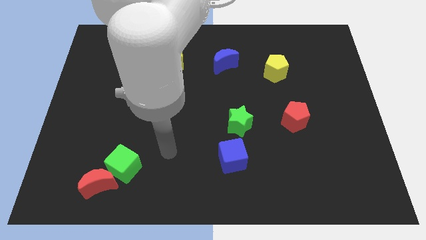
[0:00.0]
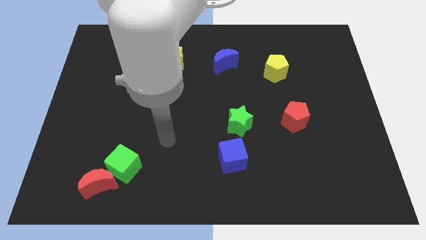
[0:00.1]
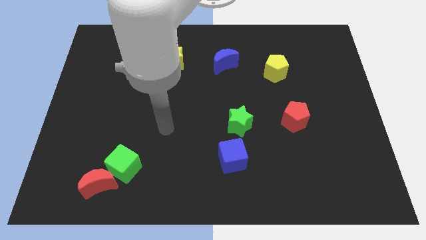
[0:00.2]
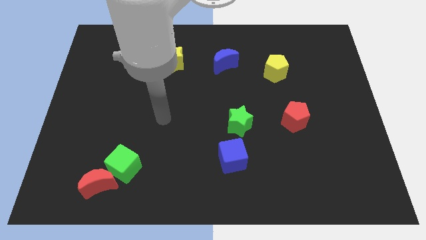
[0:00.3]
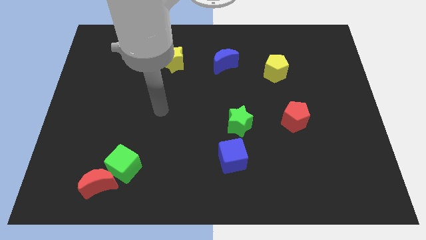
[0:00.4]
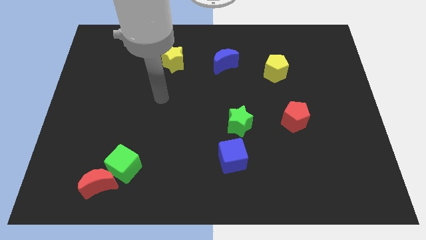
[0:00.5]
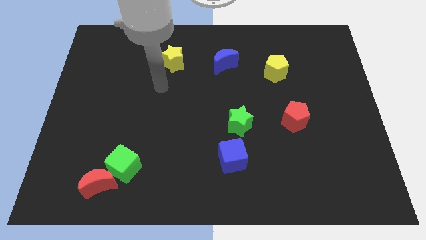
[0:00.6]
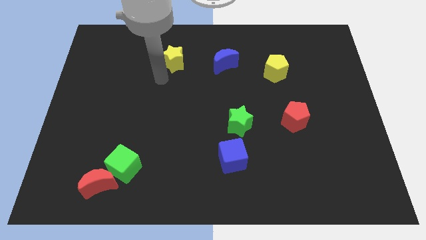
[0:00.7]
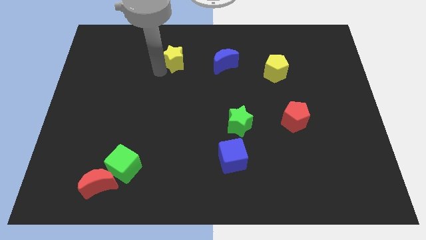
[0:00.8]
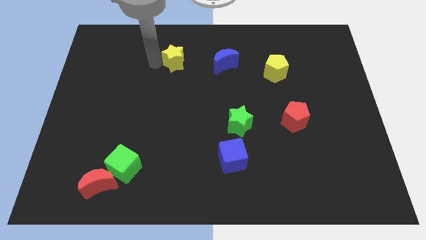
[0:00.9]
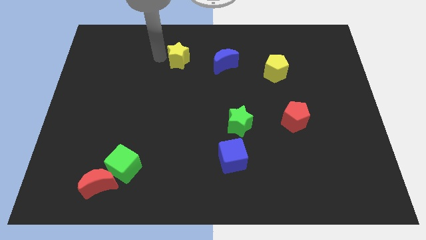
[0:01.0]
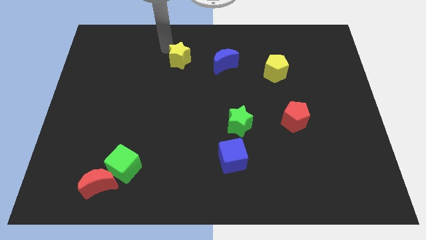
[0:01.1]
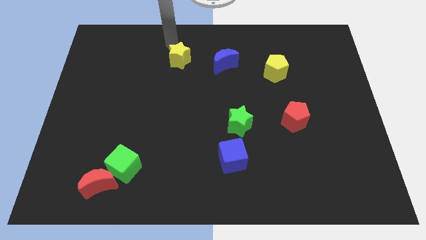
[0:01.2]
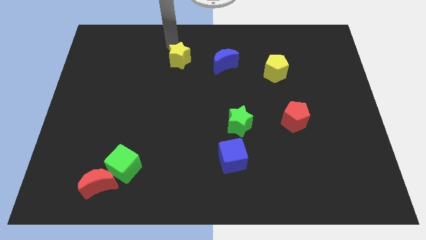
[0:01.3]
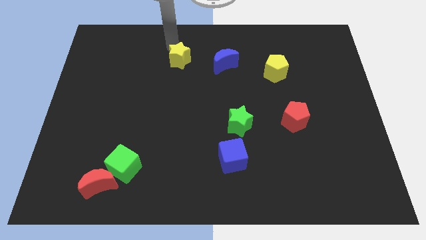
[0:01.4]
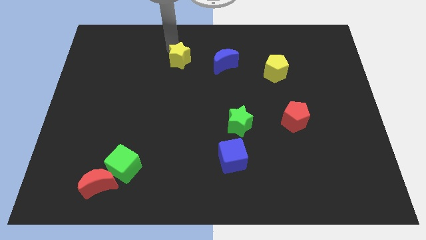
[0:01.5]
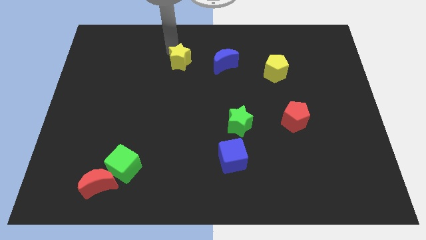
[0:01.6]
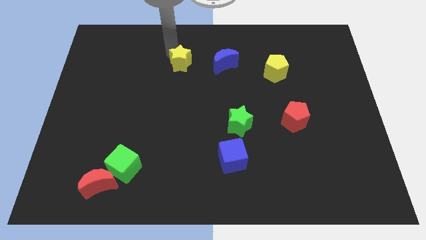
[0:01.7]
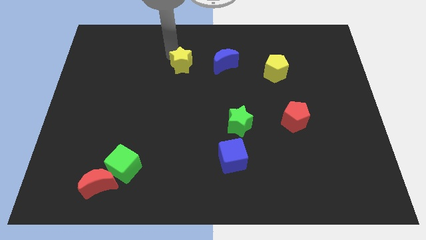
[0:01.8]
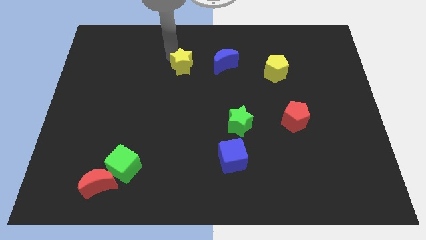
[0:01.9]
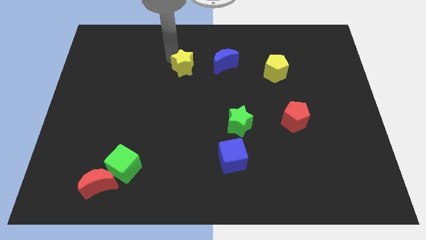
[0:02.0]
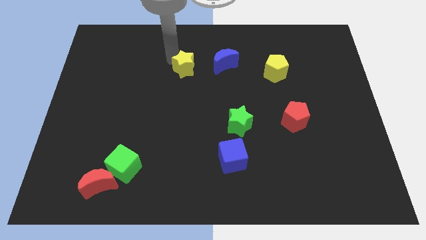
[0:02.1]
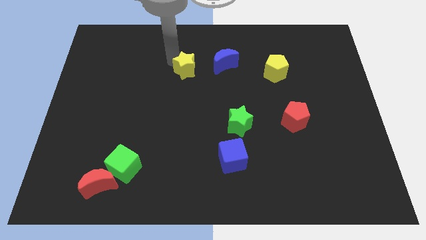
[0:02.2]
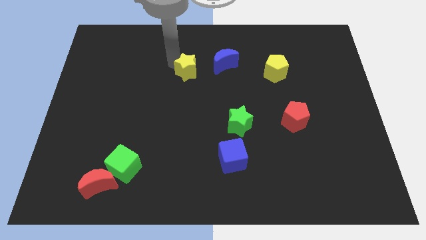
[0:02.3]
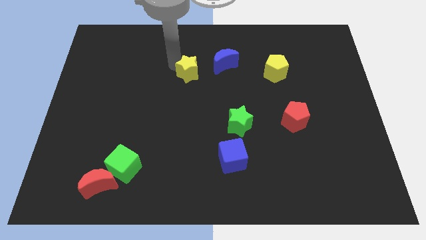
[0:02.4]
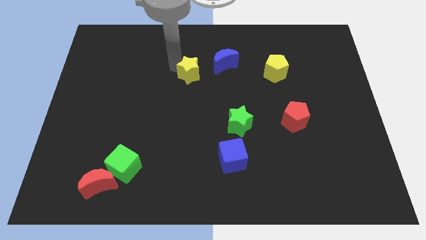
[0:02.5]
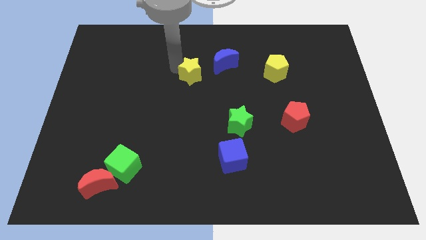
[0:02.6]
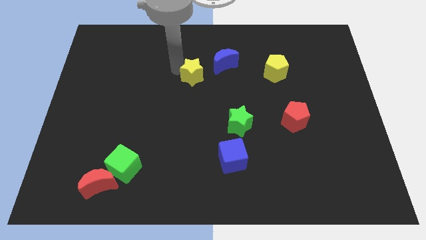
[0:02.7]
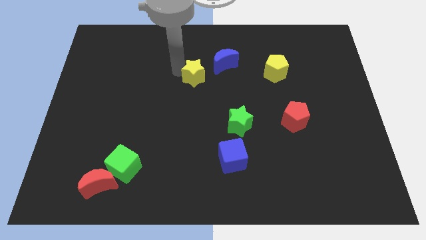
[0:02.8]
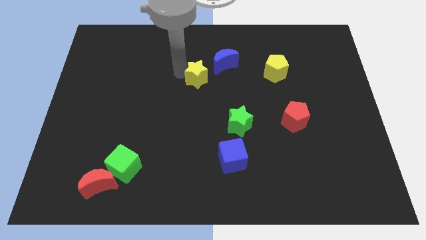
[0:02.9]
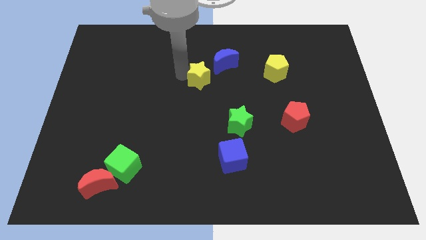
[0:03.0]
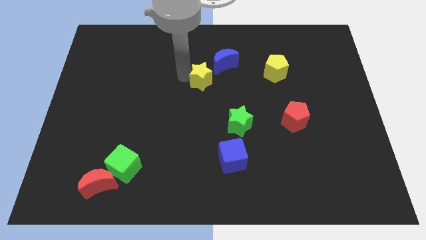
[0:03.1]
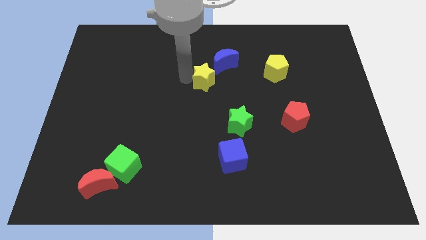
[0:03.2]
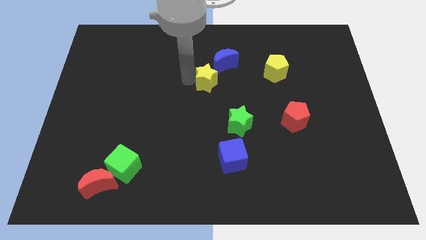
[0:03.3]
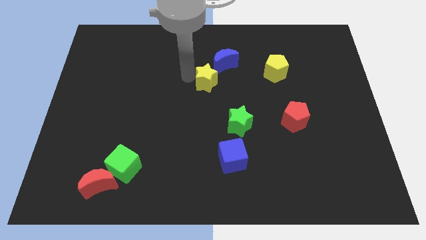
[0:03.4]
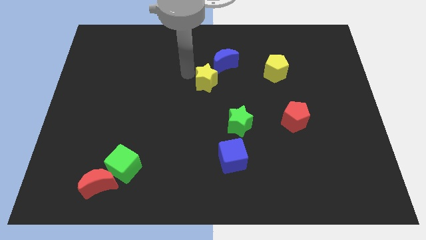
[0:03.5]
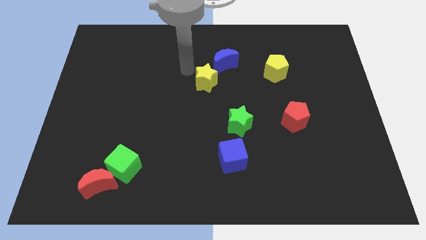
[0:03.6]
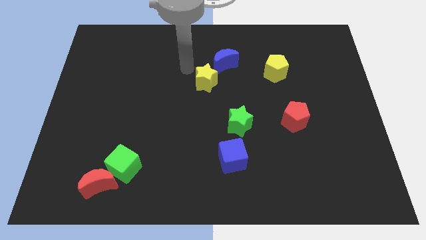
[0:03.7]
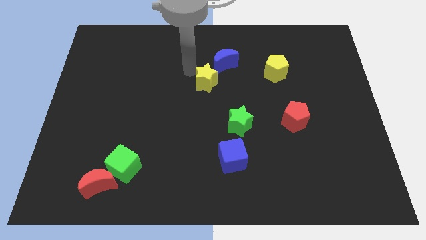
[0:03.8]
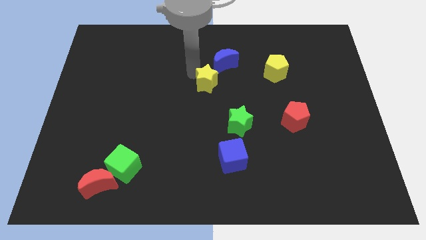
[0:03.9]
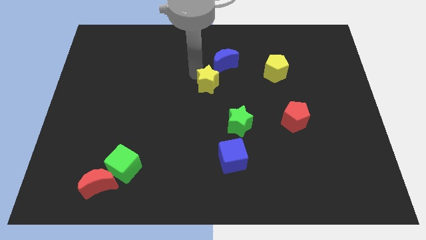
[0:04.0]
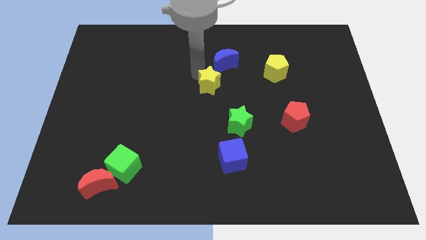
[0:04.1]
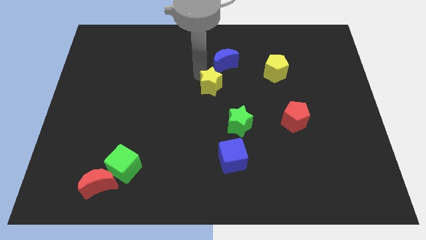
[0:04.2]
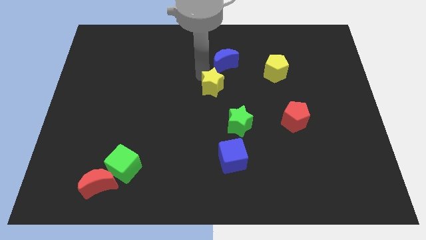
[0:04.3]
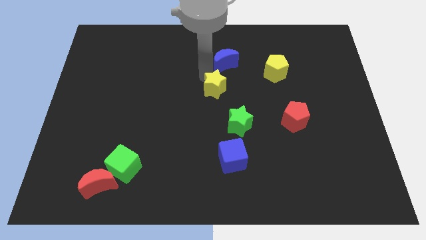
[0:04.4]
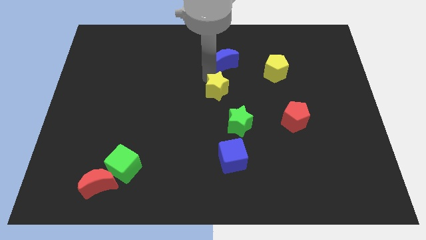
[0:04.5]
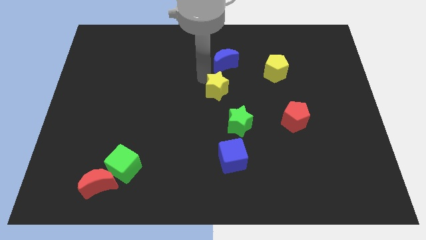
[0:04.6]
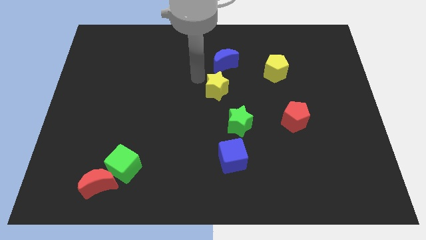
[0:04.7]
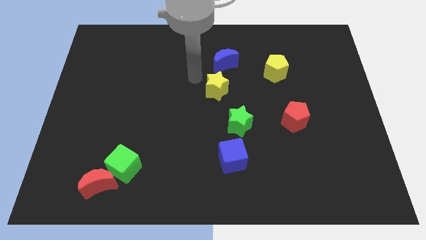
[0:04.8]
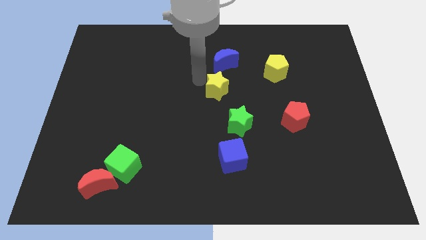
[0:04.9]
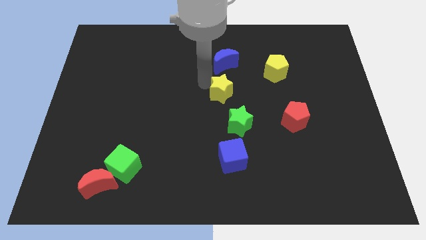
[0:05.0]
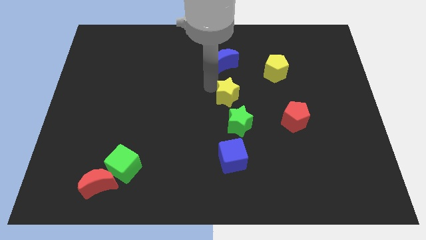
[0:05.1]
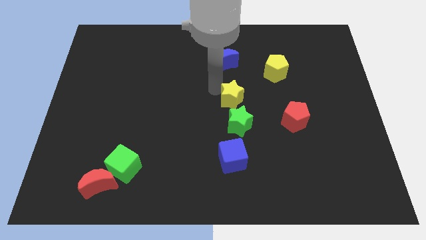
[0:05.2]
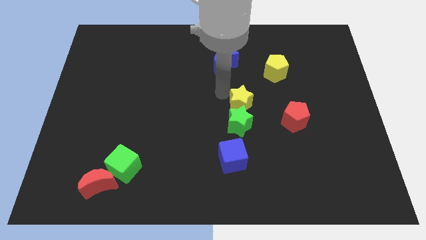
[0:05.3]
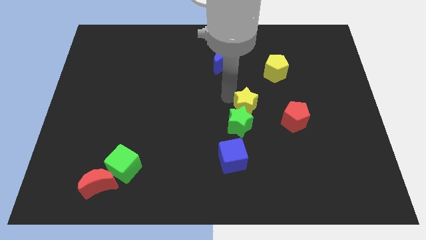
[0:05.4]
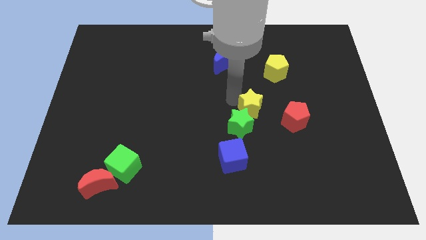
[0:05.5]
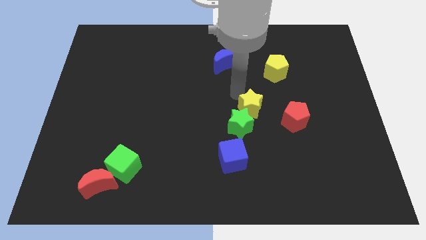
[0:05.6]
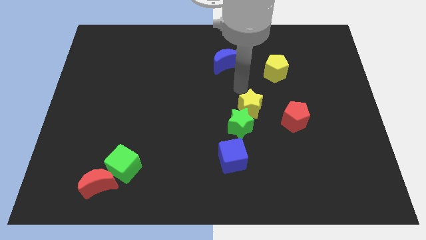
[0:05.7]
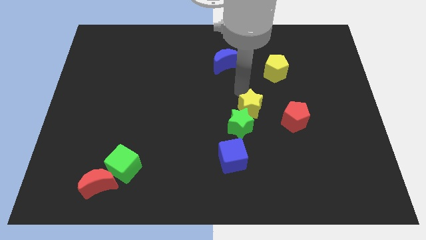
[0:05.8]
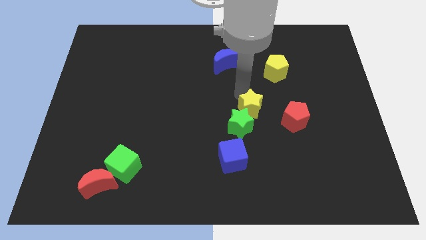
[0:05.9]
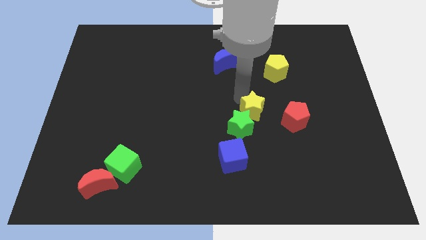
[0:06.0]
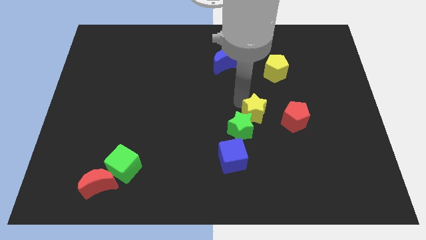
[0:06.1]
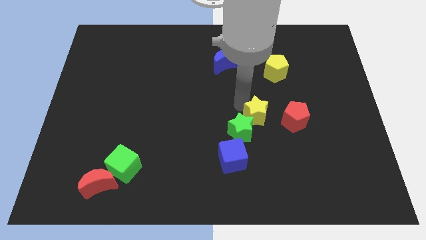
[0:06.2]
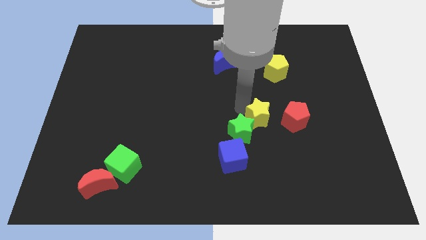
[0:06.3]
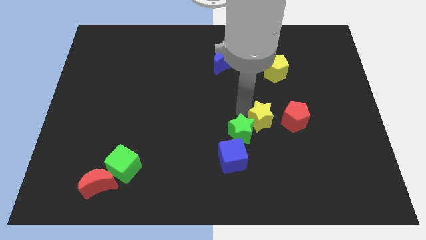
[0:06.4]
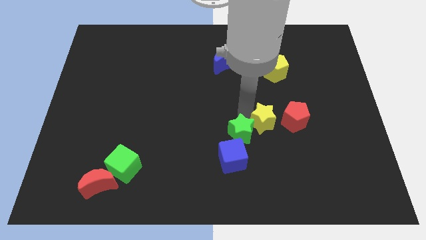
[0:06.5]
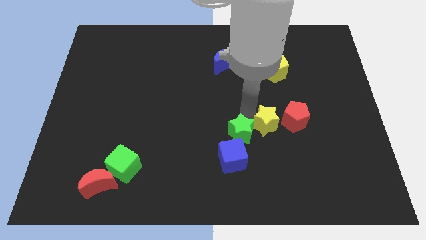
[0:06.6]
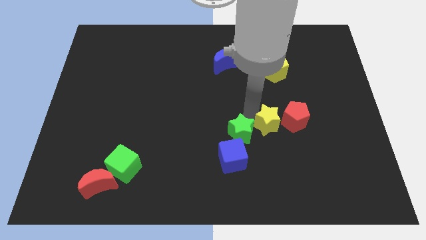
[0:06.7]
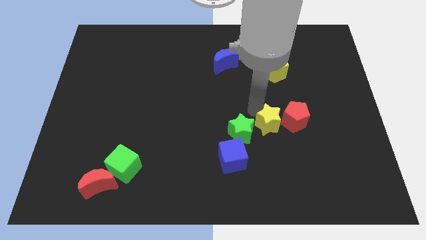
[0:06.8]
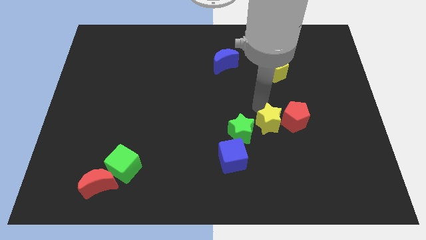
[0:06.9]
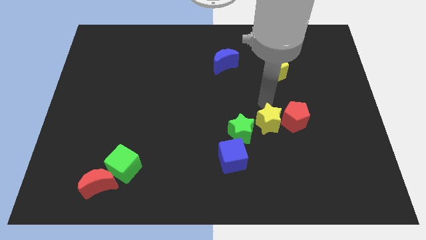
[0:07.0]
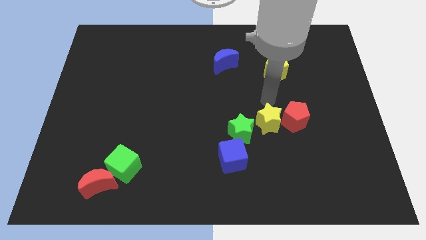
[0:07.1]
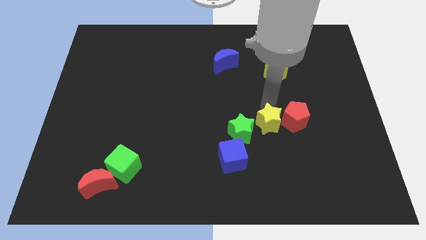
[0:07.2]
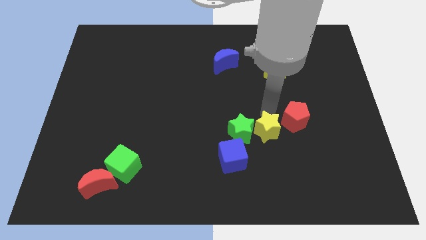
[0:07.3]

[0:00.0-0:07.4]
slide the yellow star to the bottom right side of the green star
